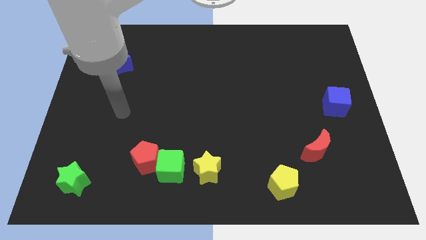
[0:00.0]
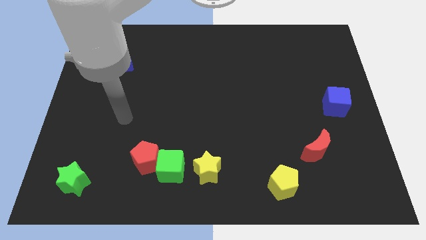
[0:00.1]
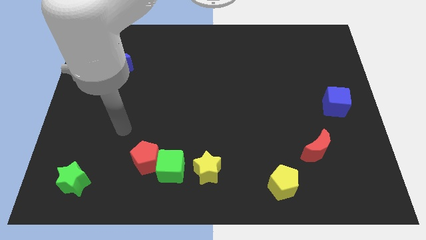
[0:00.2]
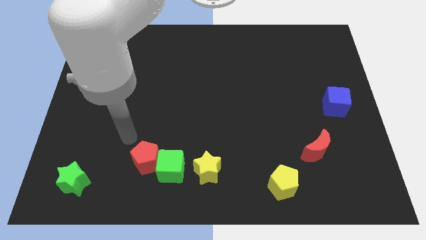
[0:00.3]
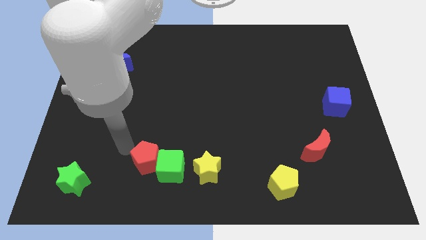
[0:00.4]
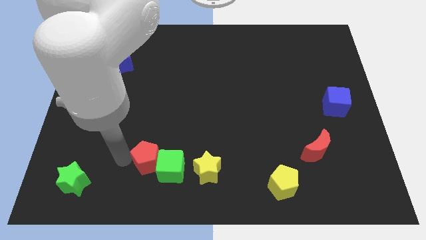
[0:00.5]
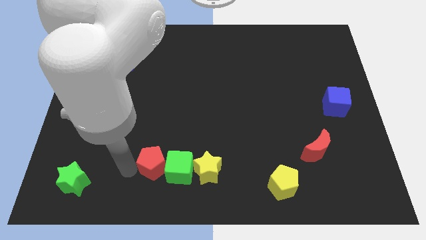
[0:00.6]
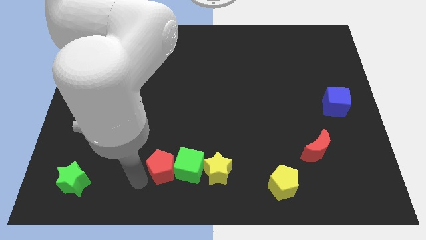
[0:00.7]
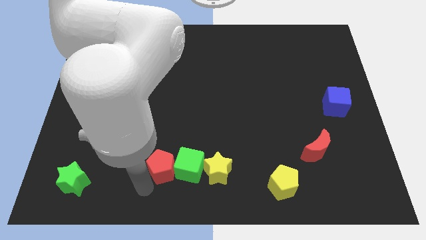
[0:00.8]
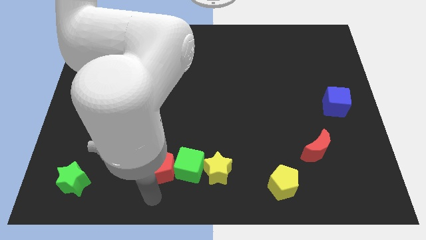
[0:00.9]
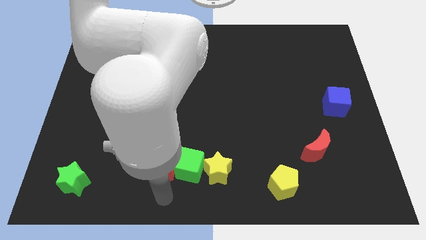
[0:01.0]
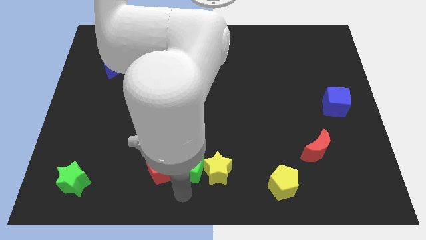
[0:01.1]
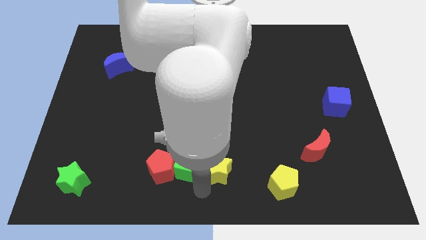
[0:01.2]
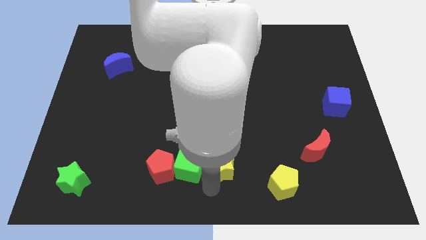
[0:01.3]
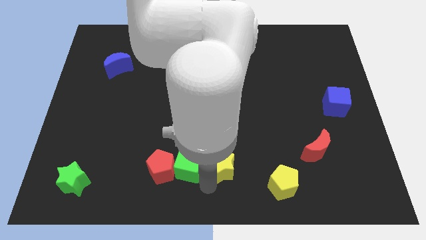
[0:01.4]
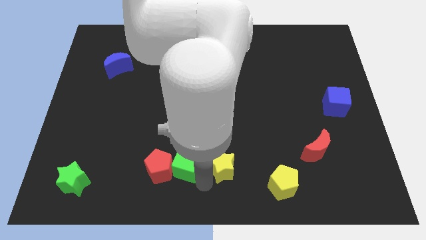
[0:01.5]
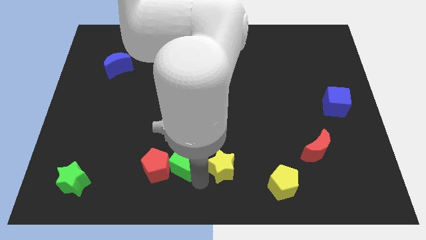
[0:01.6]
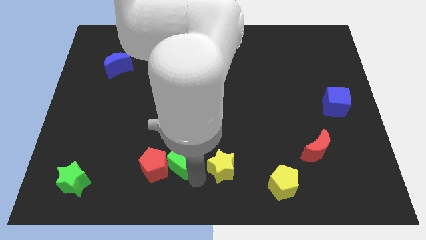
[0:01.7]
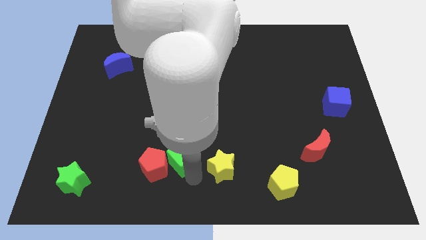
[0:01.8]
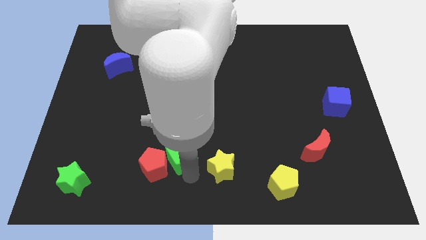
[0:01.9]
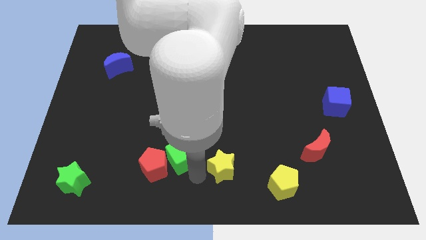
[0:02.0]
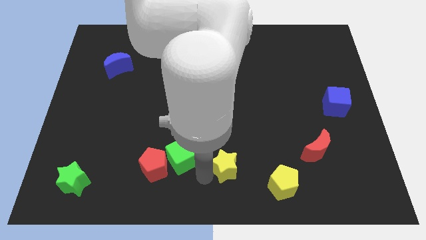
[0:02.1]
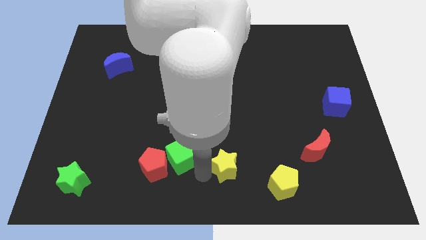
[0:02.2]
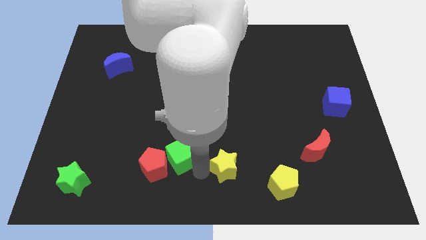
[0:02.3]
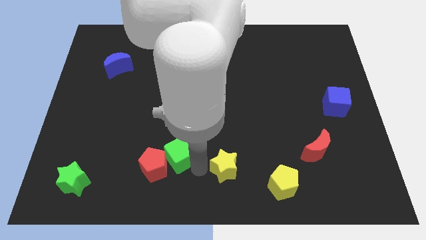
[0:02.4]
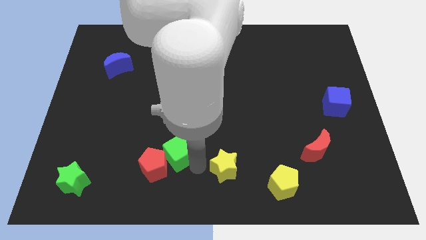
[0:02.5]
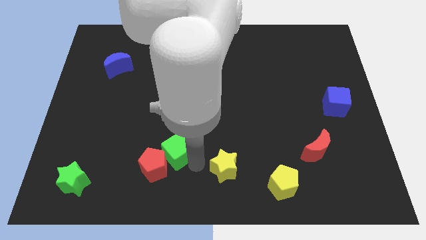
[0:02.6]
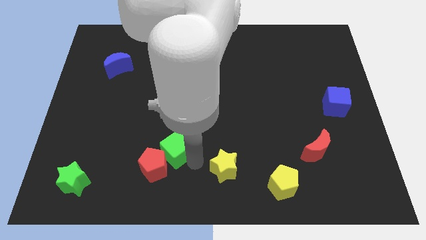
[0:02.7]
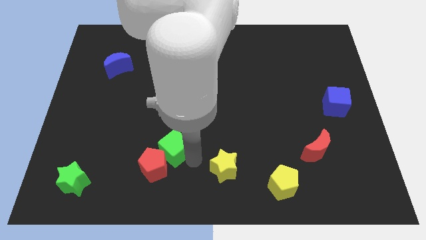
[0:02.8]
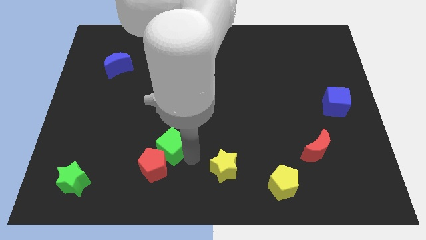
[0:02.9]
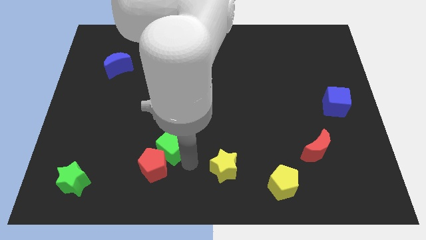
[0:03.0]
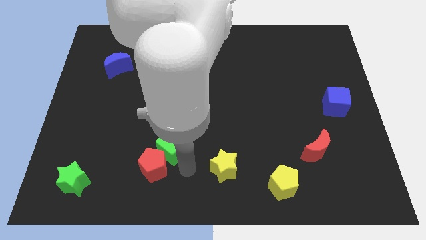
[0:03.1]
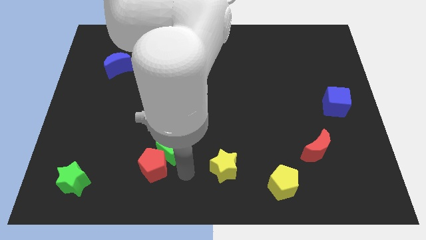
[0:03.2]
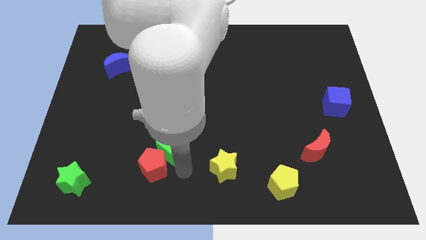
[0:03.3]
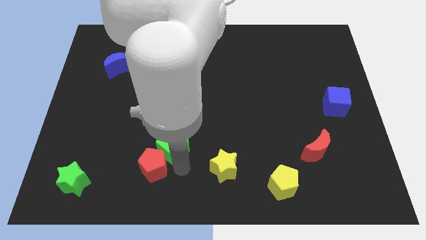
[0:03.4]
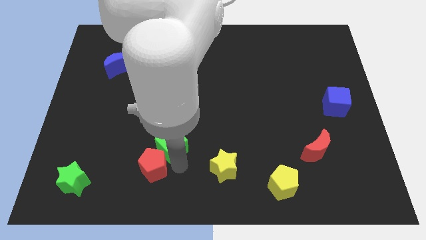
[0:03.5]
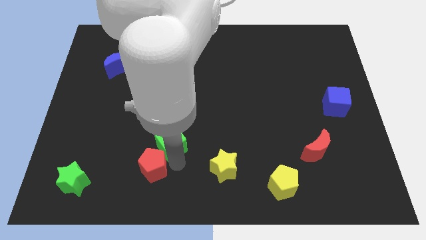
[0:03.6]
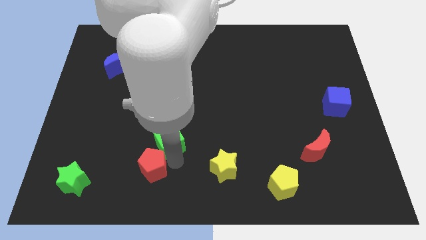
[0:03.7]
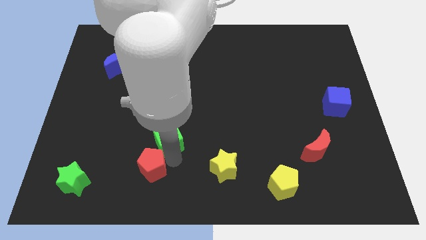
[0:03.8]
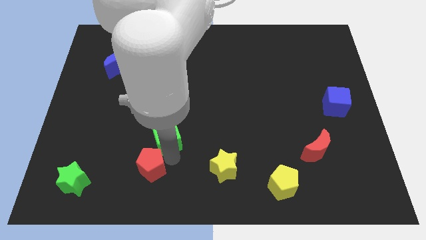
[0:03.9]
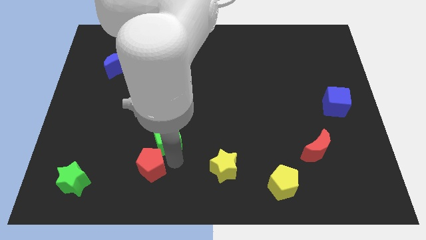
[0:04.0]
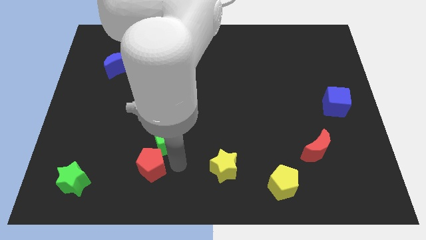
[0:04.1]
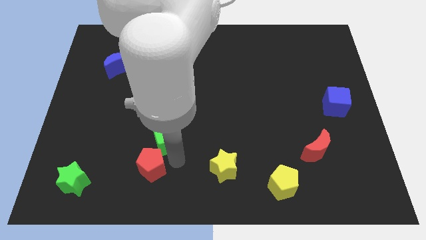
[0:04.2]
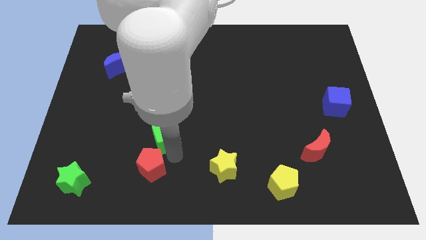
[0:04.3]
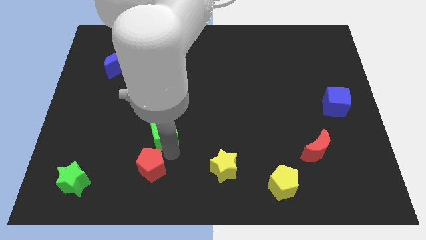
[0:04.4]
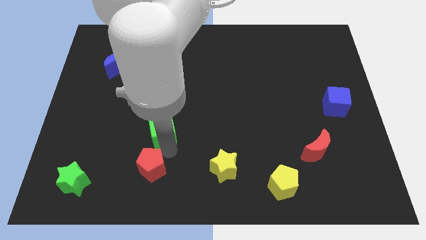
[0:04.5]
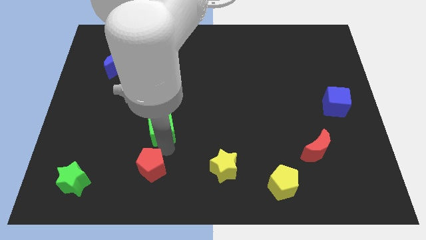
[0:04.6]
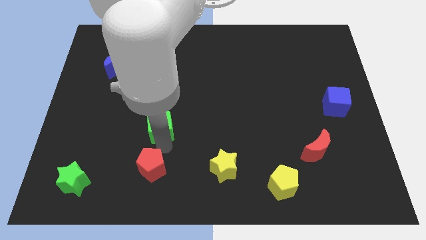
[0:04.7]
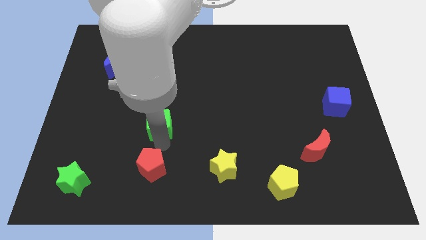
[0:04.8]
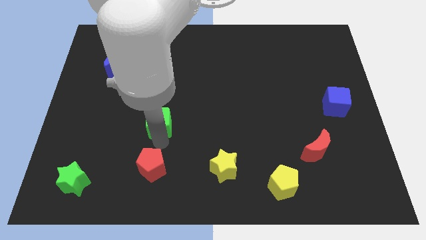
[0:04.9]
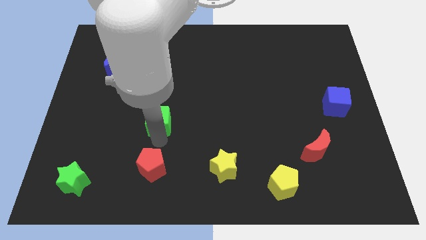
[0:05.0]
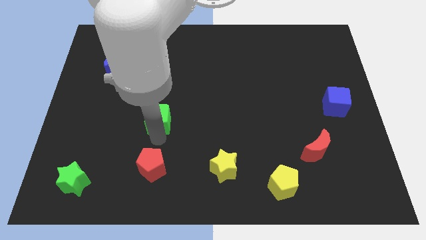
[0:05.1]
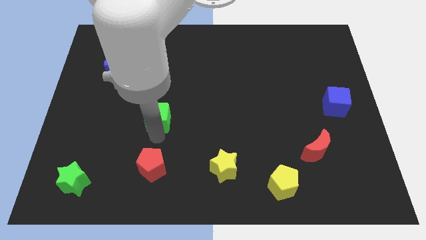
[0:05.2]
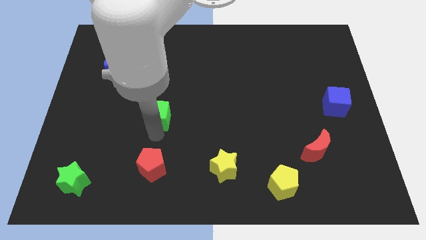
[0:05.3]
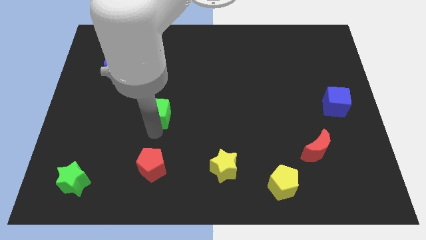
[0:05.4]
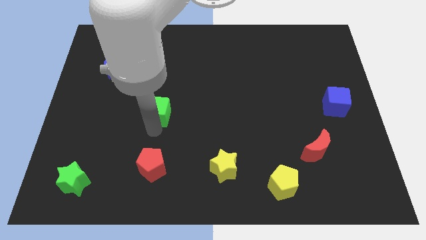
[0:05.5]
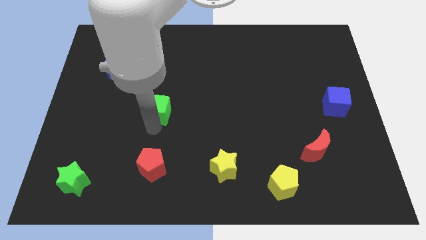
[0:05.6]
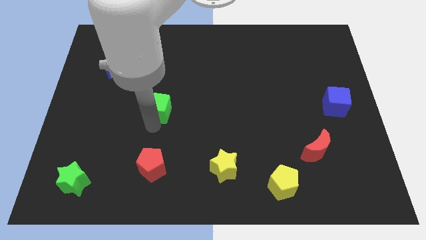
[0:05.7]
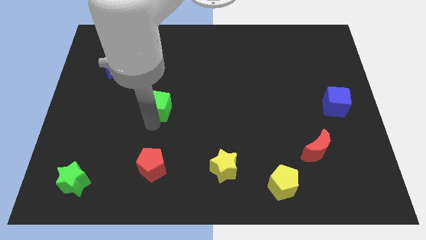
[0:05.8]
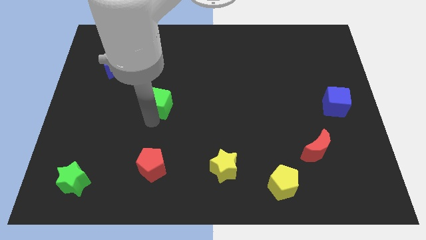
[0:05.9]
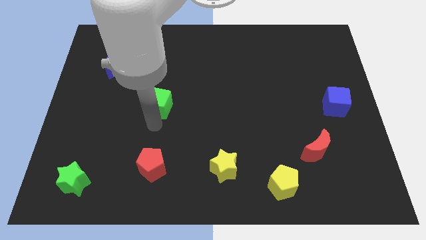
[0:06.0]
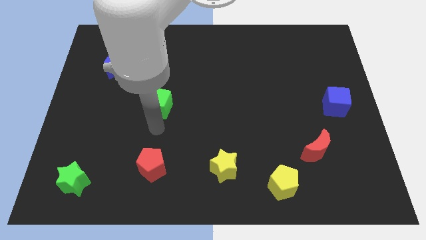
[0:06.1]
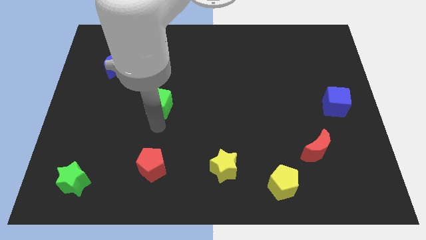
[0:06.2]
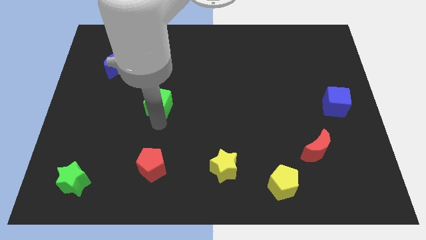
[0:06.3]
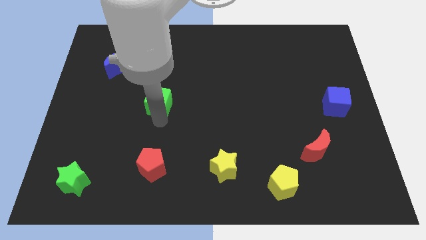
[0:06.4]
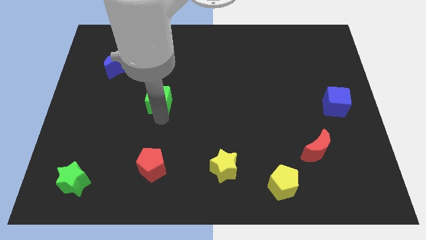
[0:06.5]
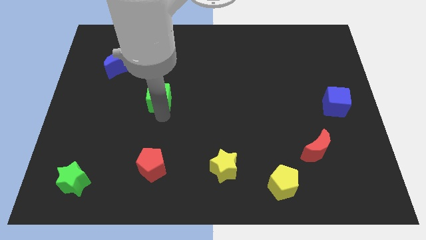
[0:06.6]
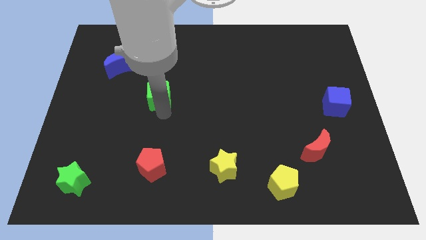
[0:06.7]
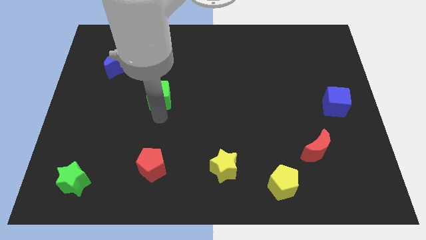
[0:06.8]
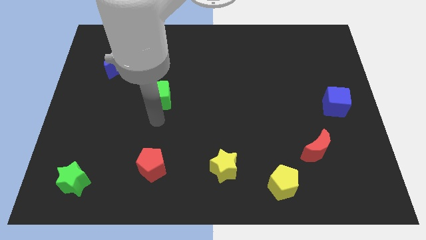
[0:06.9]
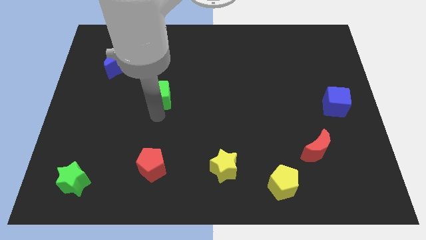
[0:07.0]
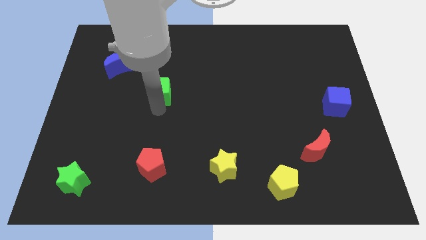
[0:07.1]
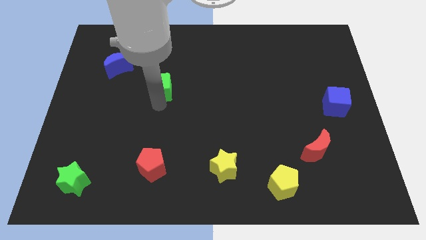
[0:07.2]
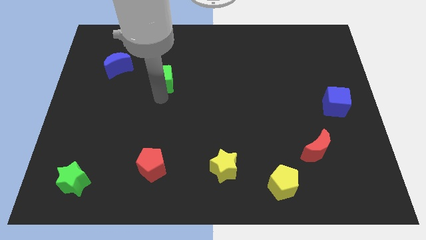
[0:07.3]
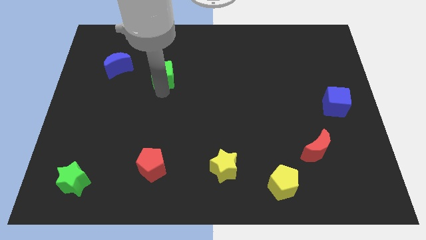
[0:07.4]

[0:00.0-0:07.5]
put the green cube to the right of the blue moon
